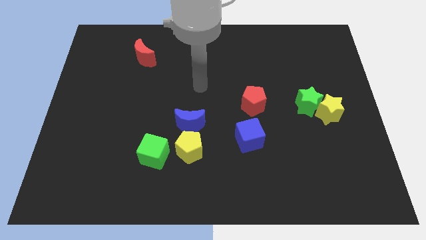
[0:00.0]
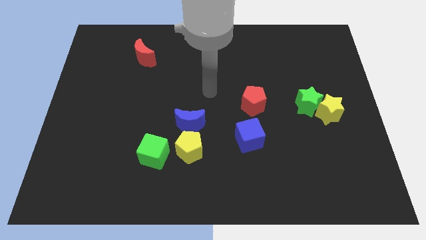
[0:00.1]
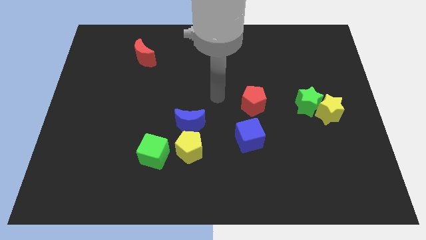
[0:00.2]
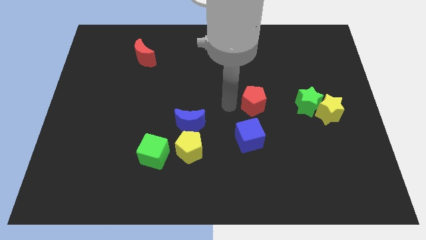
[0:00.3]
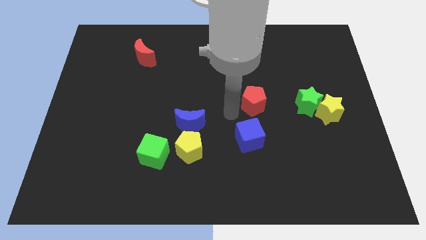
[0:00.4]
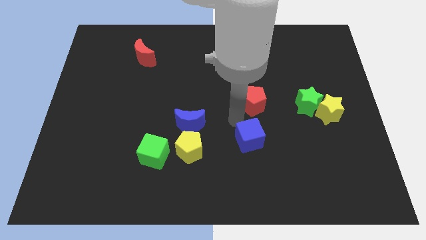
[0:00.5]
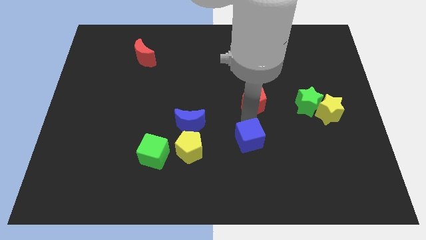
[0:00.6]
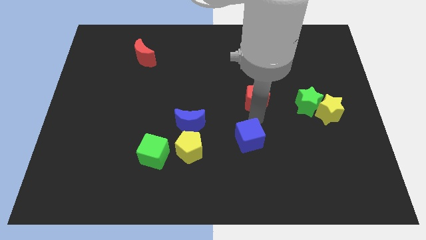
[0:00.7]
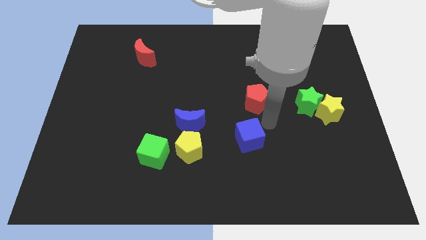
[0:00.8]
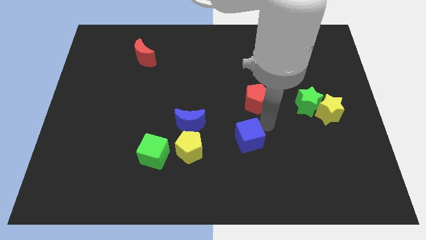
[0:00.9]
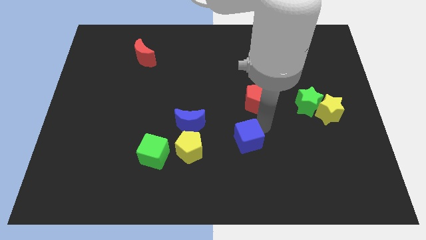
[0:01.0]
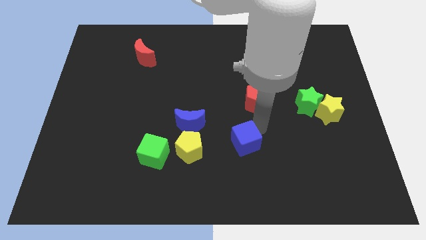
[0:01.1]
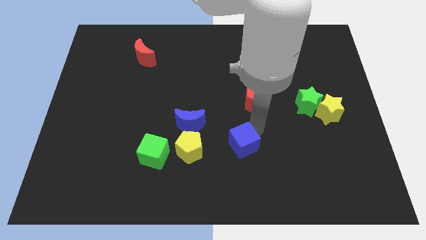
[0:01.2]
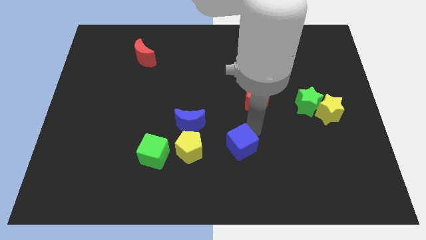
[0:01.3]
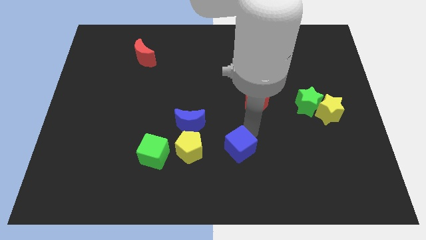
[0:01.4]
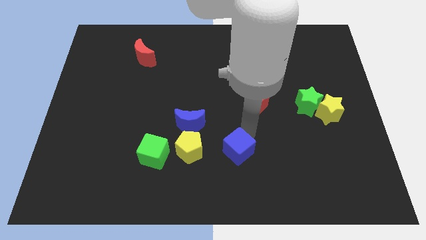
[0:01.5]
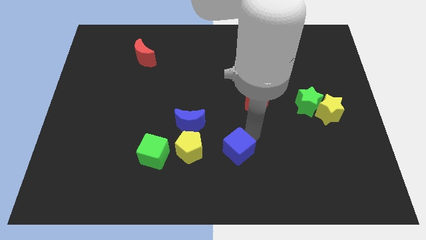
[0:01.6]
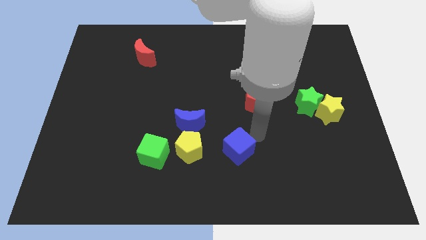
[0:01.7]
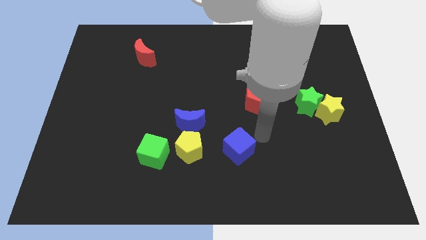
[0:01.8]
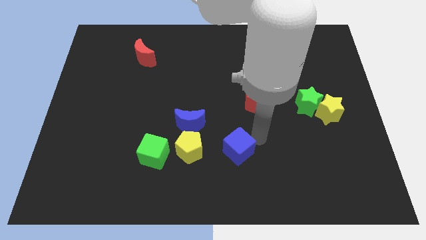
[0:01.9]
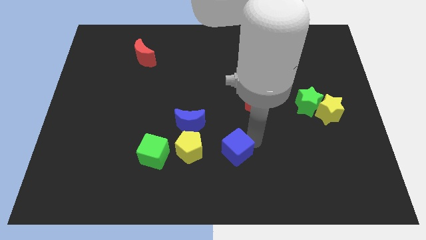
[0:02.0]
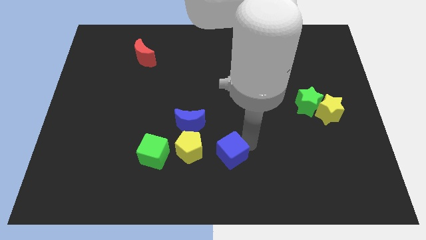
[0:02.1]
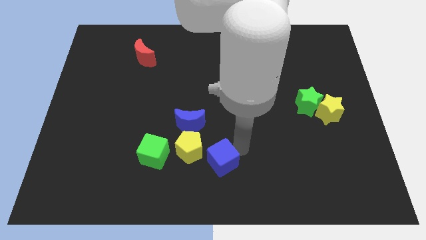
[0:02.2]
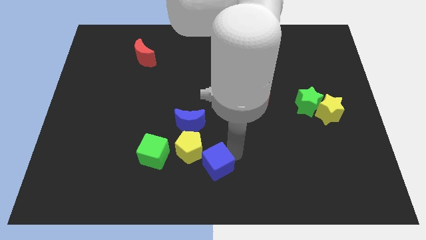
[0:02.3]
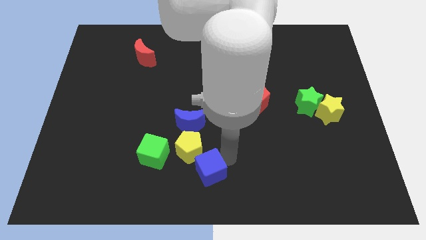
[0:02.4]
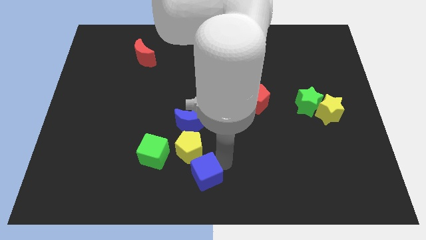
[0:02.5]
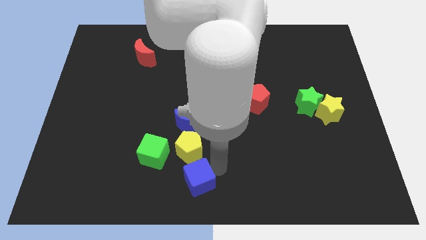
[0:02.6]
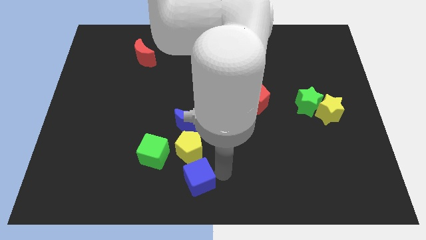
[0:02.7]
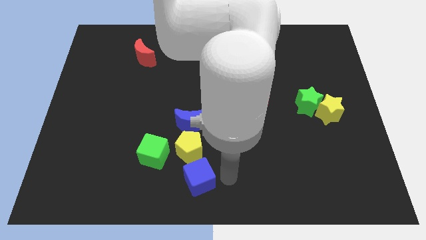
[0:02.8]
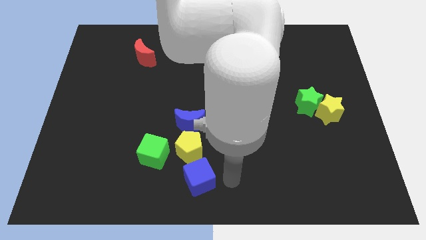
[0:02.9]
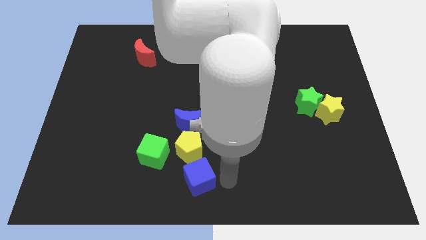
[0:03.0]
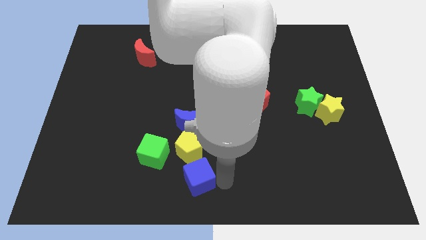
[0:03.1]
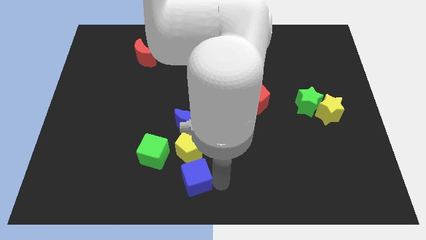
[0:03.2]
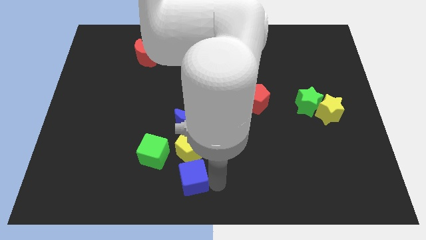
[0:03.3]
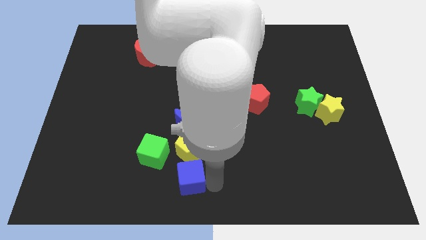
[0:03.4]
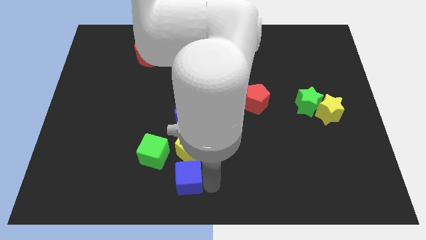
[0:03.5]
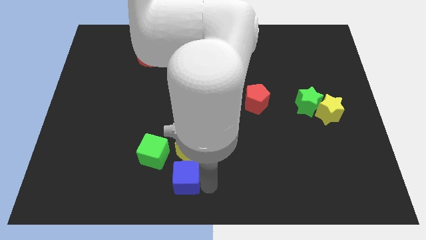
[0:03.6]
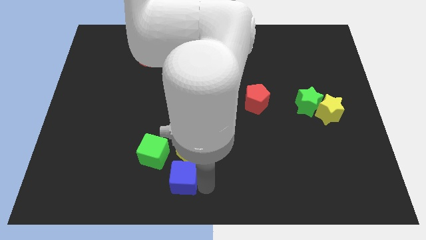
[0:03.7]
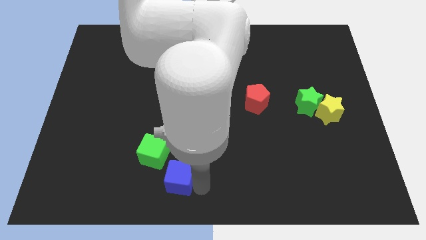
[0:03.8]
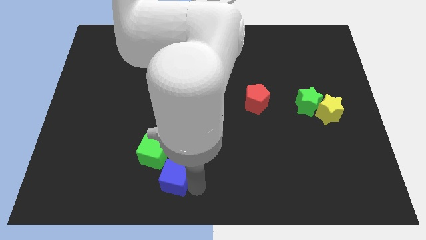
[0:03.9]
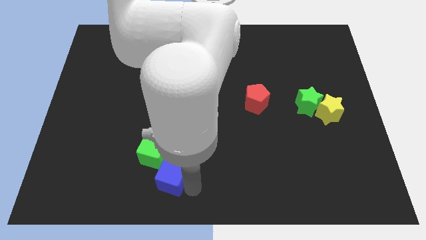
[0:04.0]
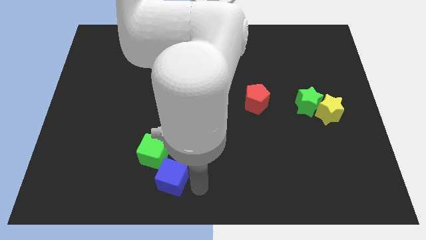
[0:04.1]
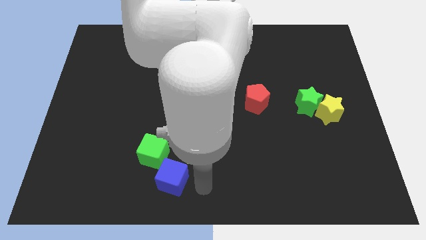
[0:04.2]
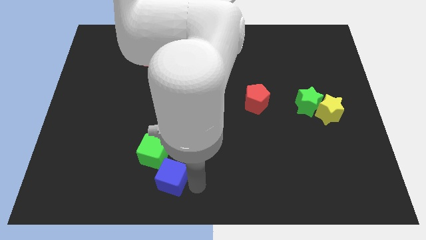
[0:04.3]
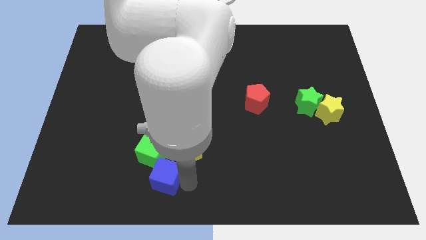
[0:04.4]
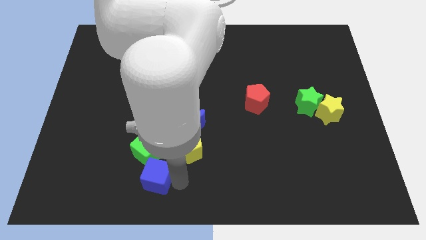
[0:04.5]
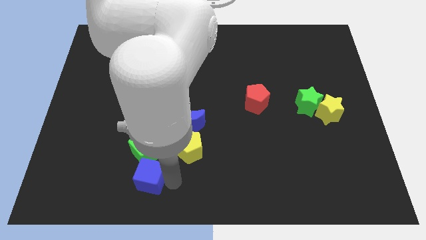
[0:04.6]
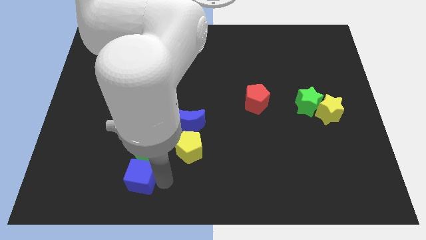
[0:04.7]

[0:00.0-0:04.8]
push the blue cube diagonally down and to the left of the green cube

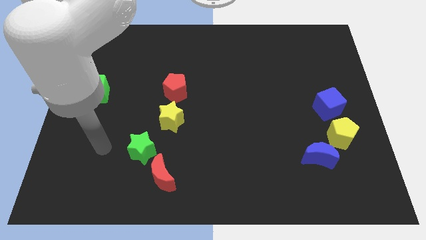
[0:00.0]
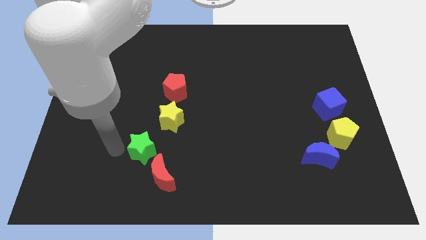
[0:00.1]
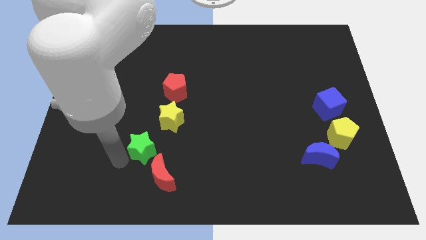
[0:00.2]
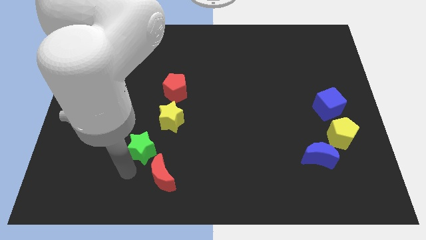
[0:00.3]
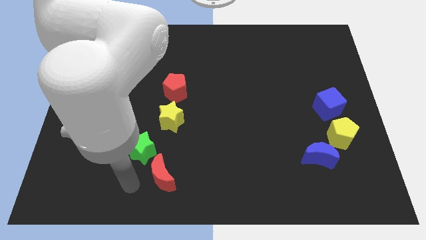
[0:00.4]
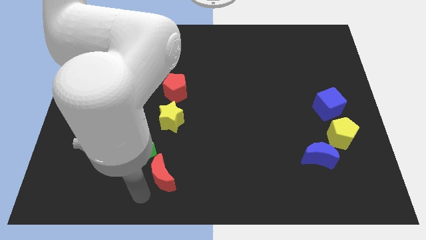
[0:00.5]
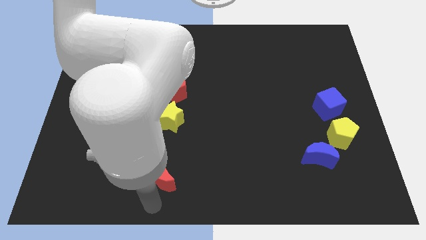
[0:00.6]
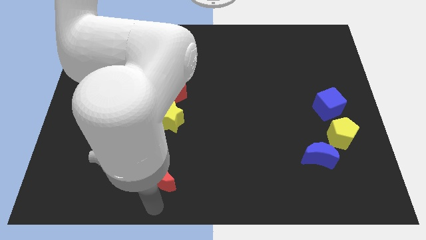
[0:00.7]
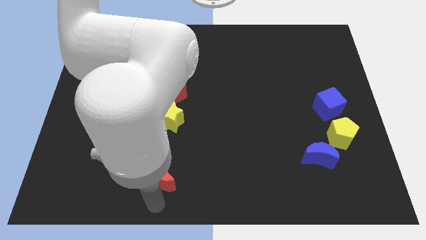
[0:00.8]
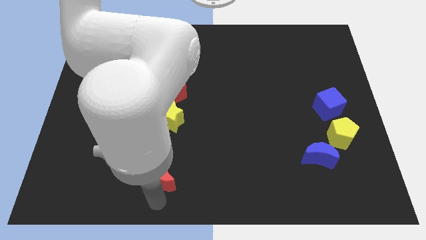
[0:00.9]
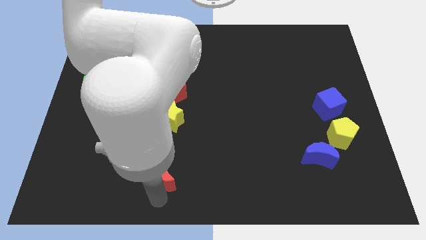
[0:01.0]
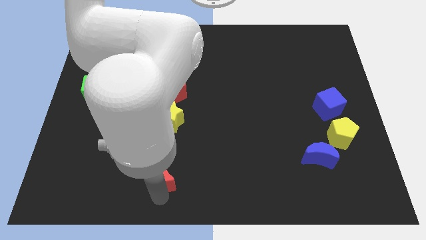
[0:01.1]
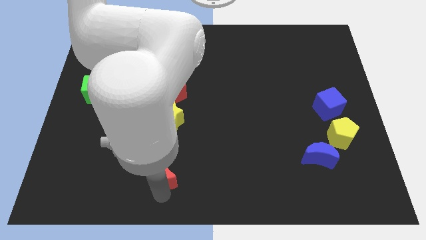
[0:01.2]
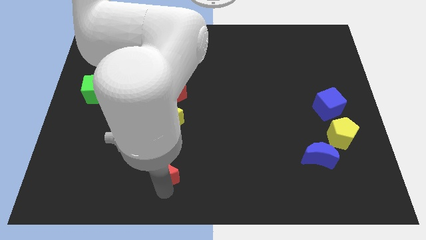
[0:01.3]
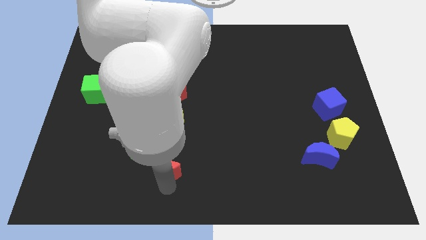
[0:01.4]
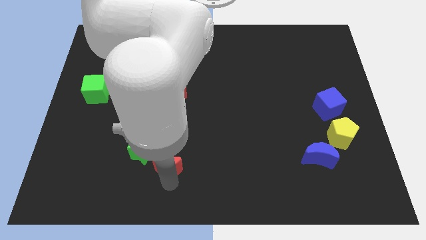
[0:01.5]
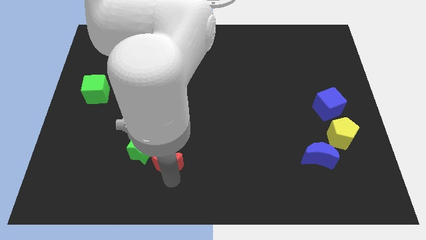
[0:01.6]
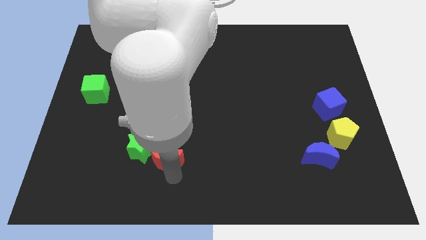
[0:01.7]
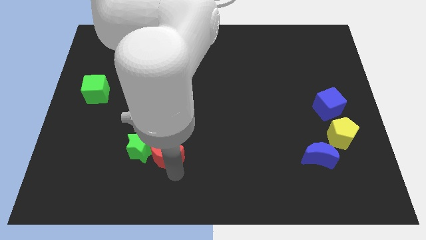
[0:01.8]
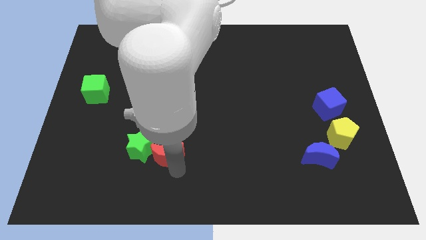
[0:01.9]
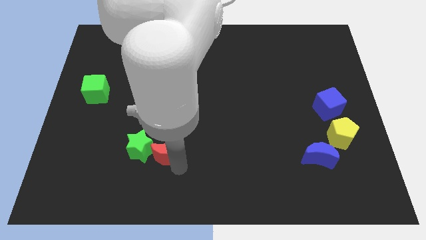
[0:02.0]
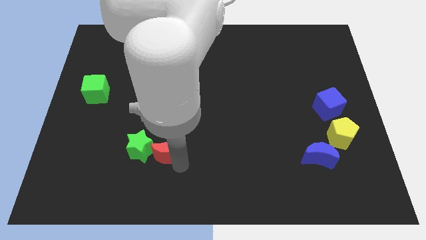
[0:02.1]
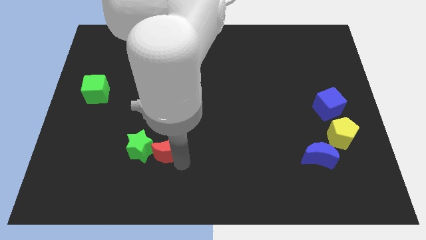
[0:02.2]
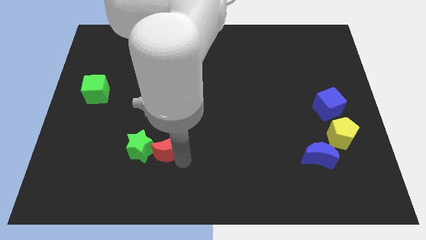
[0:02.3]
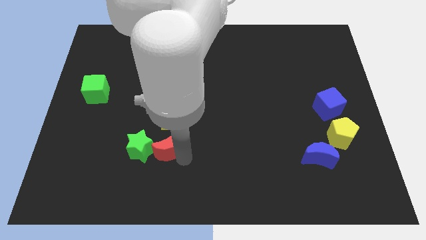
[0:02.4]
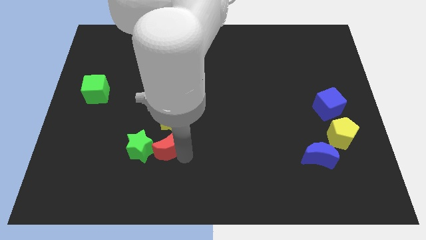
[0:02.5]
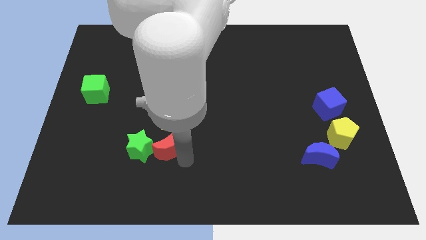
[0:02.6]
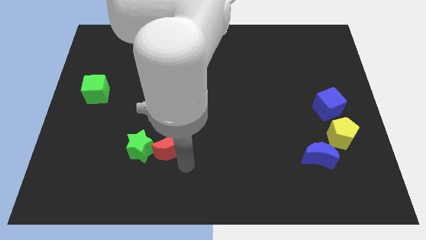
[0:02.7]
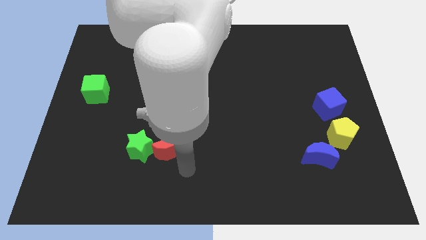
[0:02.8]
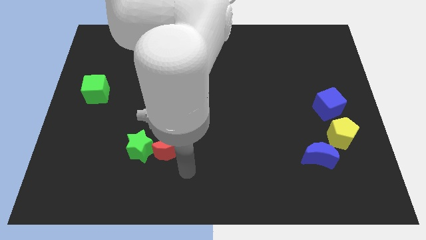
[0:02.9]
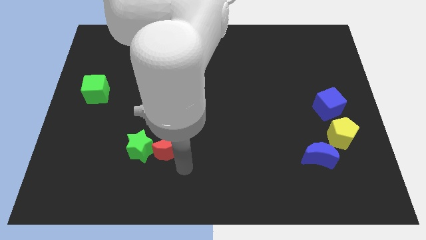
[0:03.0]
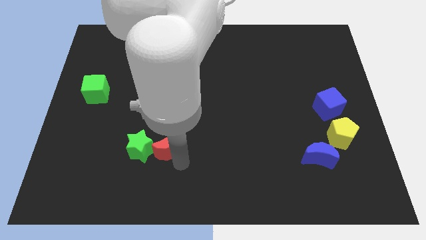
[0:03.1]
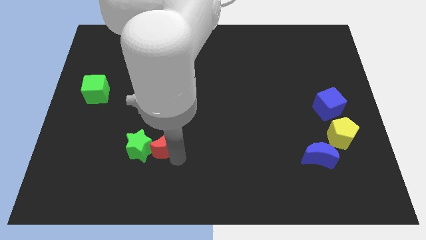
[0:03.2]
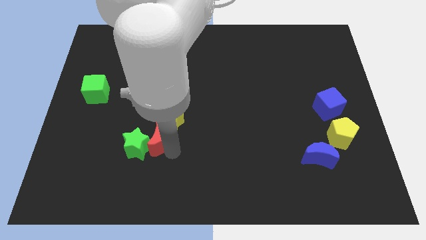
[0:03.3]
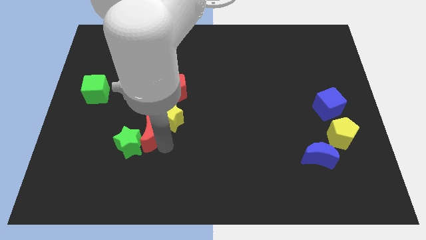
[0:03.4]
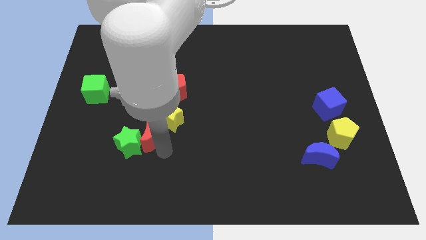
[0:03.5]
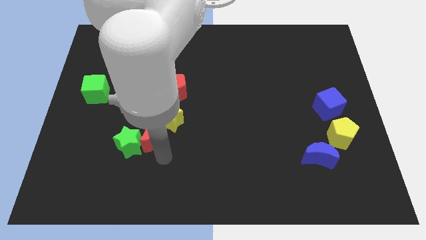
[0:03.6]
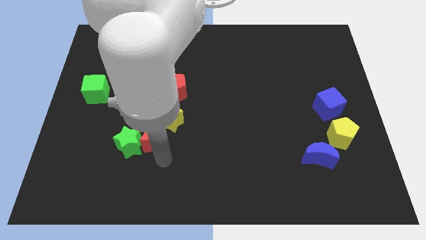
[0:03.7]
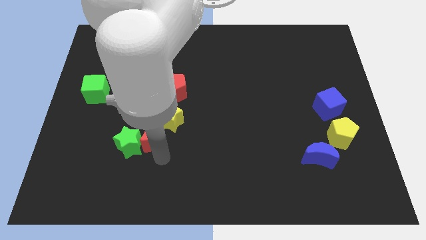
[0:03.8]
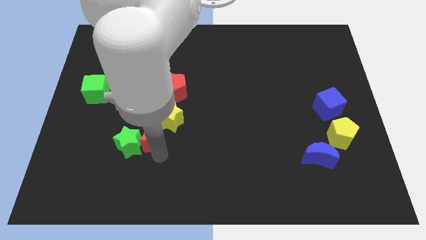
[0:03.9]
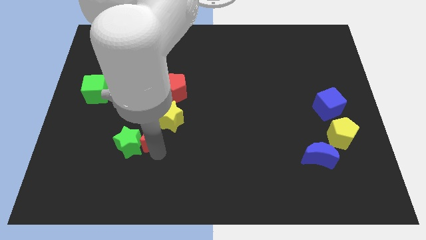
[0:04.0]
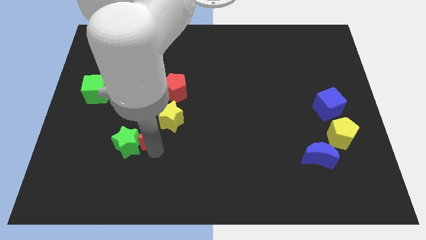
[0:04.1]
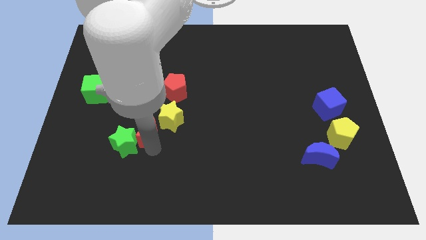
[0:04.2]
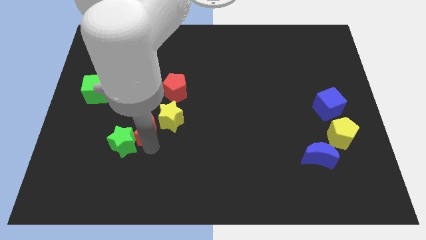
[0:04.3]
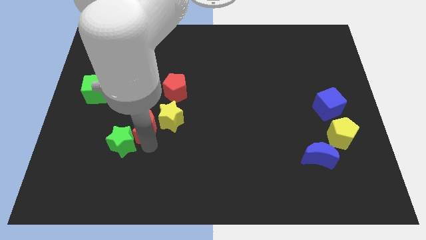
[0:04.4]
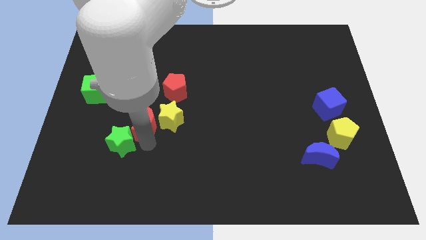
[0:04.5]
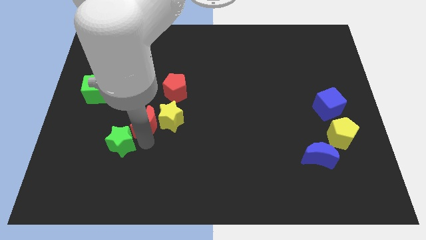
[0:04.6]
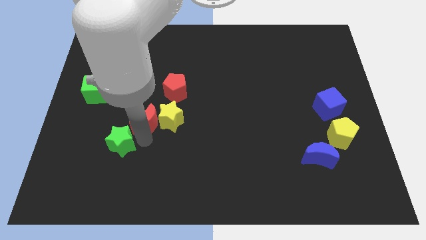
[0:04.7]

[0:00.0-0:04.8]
put the red moon to the top left of the yellow star
